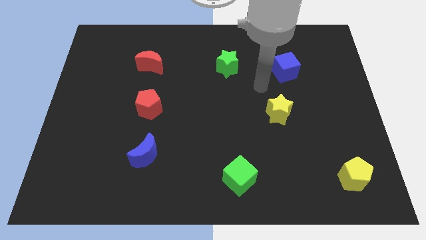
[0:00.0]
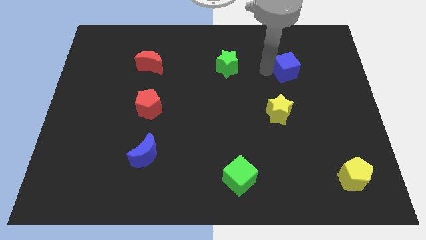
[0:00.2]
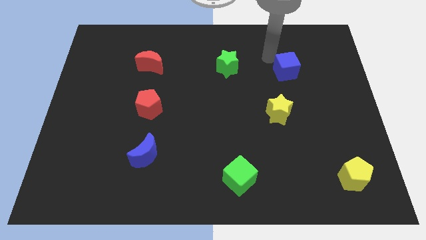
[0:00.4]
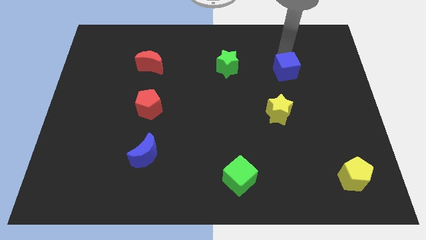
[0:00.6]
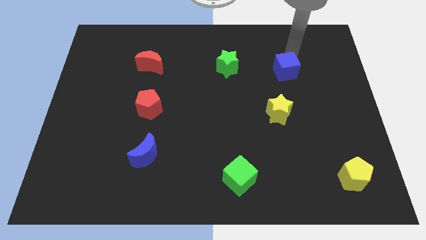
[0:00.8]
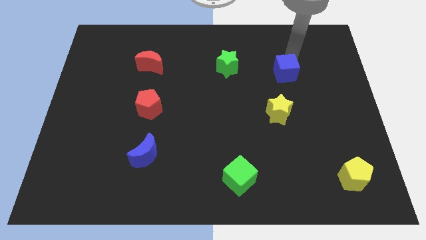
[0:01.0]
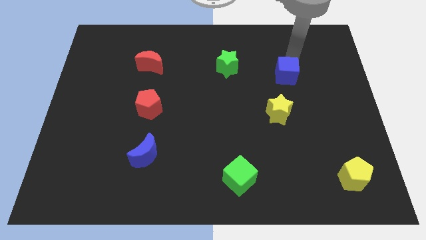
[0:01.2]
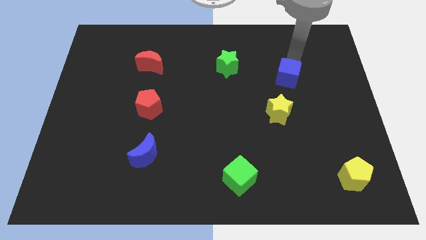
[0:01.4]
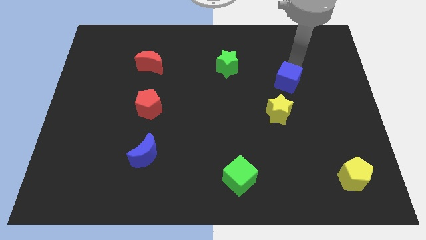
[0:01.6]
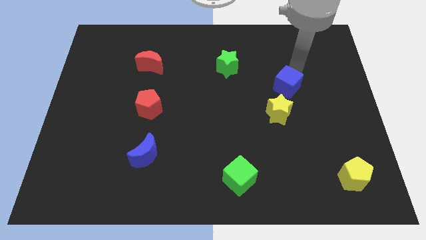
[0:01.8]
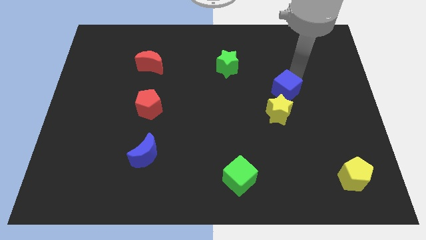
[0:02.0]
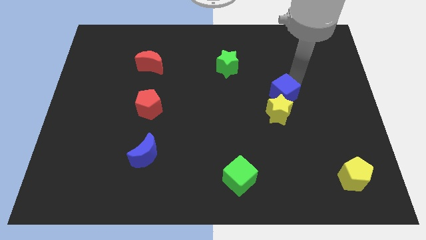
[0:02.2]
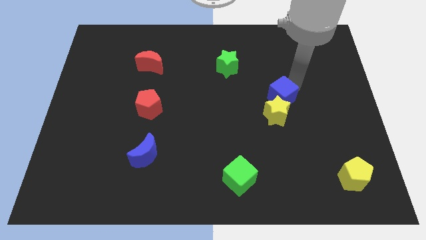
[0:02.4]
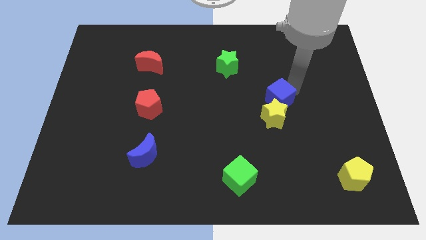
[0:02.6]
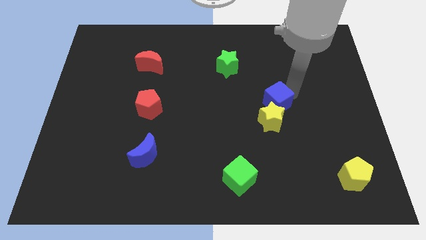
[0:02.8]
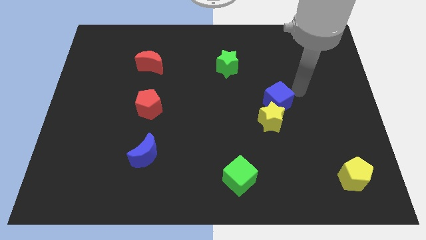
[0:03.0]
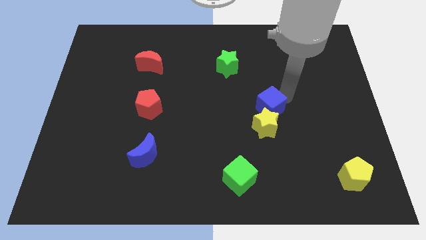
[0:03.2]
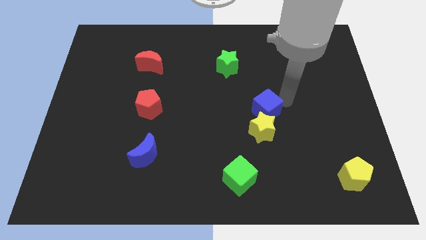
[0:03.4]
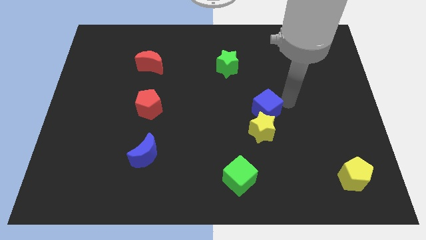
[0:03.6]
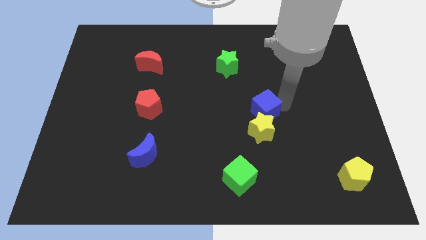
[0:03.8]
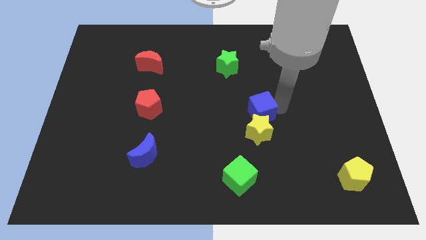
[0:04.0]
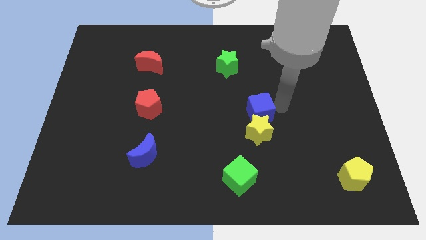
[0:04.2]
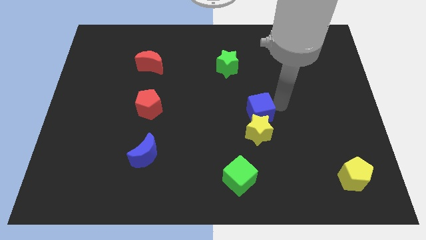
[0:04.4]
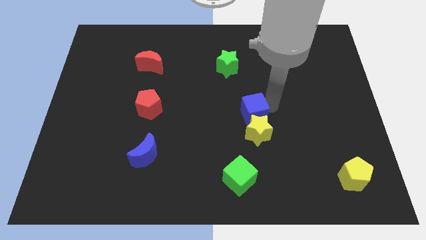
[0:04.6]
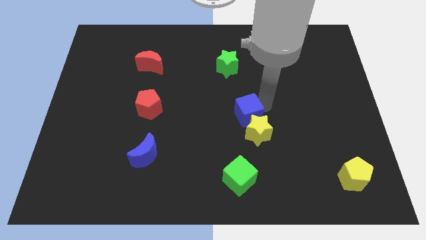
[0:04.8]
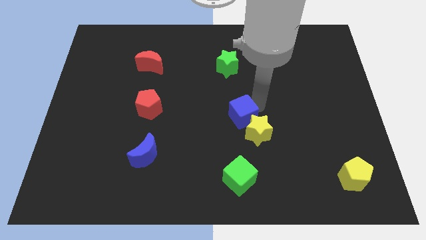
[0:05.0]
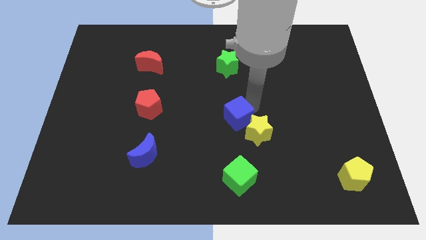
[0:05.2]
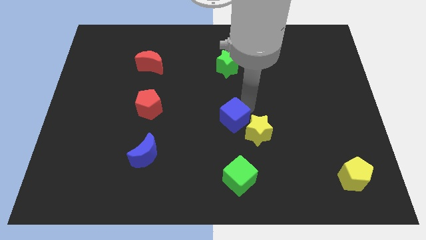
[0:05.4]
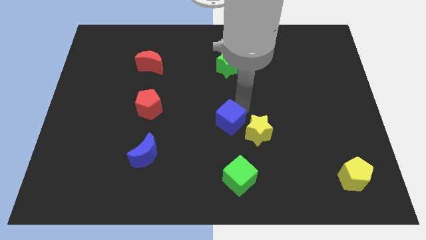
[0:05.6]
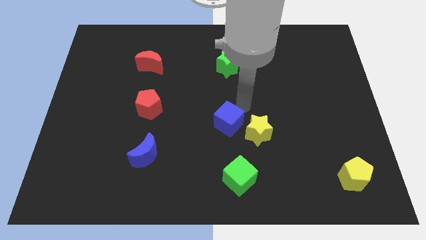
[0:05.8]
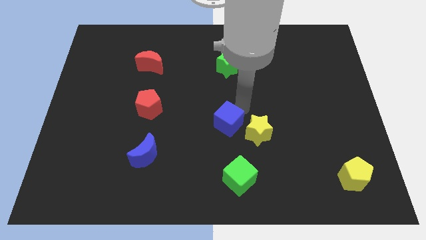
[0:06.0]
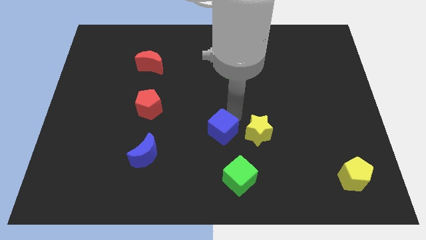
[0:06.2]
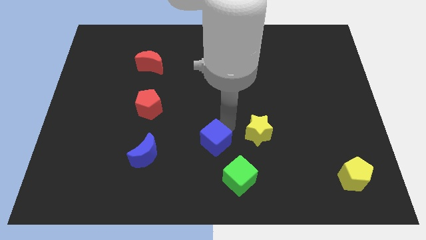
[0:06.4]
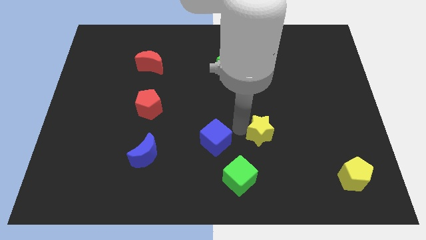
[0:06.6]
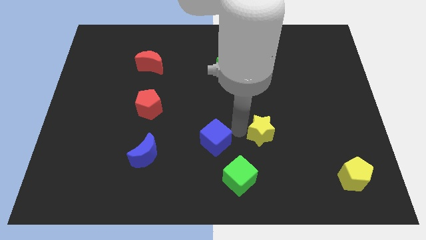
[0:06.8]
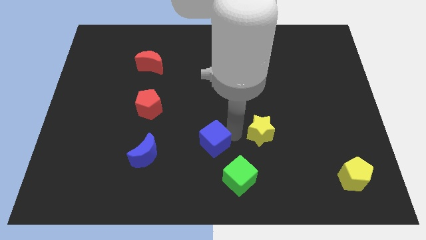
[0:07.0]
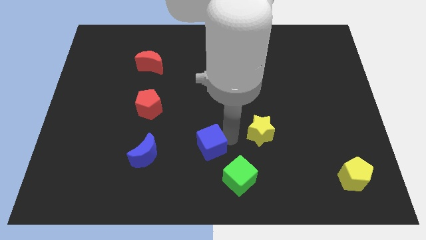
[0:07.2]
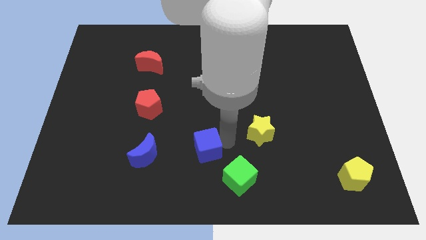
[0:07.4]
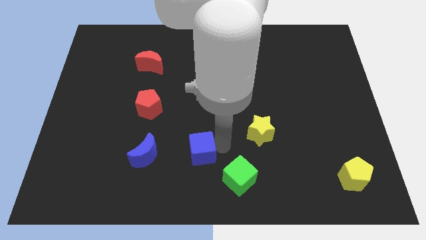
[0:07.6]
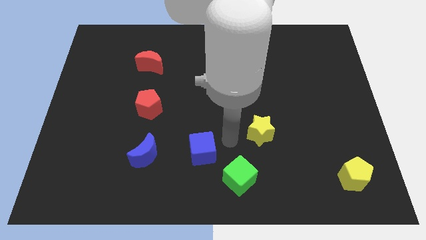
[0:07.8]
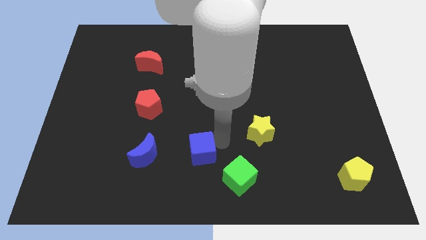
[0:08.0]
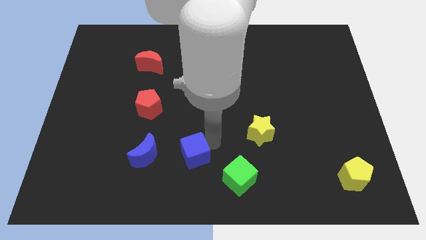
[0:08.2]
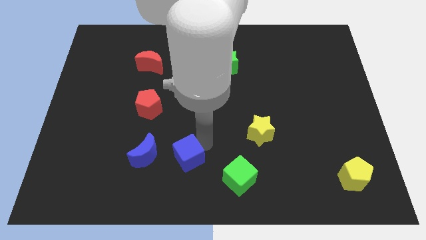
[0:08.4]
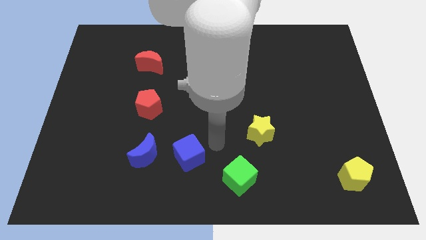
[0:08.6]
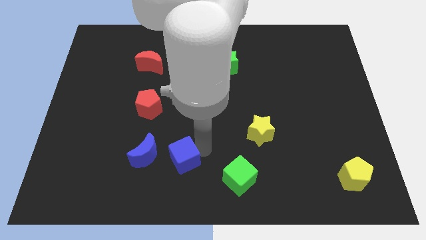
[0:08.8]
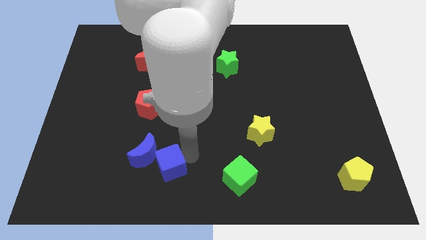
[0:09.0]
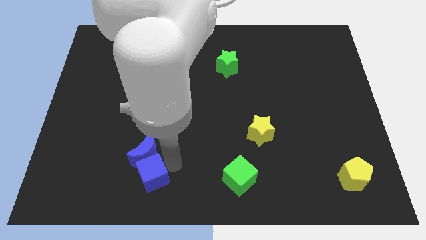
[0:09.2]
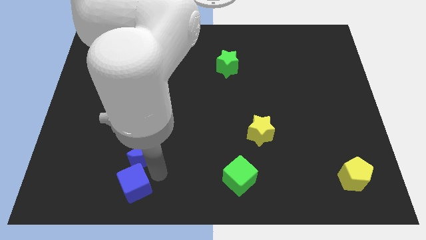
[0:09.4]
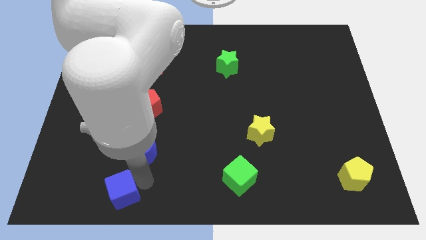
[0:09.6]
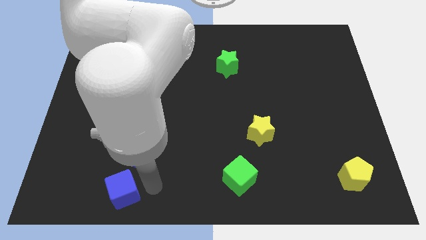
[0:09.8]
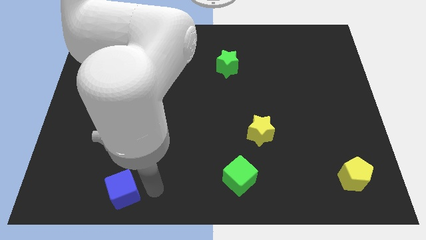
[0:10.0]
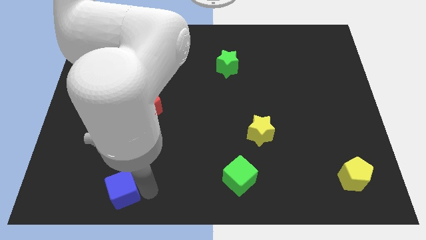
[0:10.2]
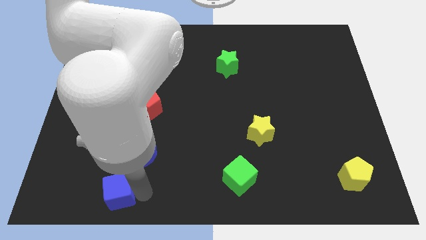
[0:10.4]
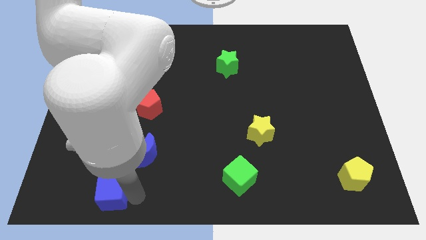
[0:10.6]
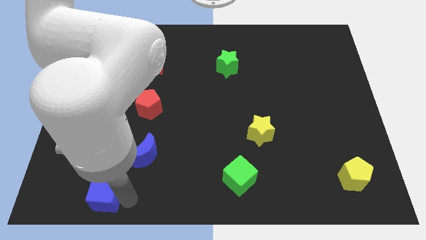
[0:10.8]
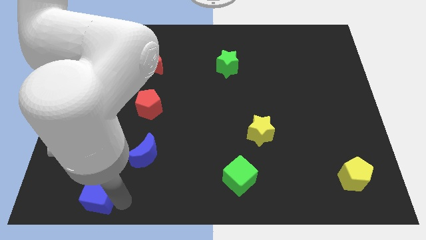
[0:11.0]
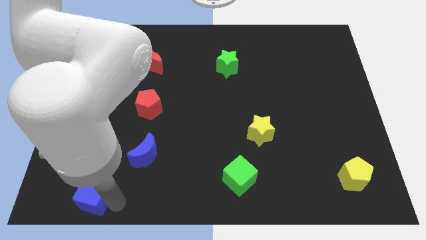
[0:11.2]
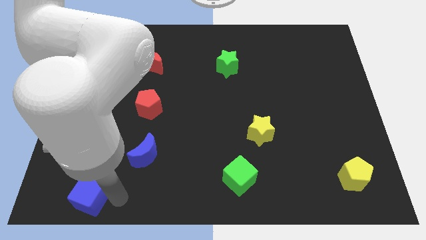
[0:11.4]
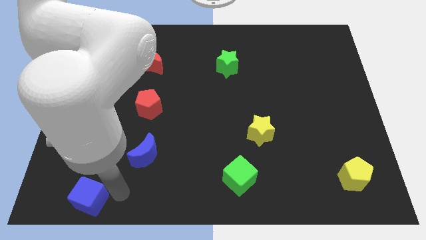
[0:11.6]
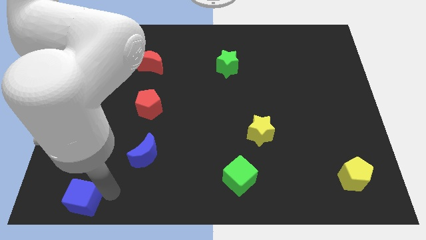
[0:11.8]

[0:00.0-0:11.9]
put the blue cube to the lower left corner
